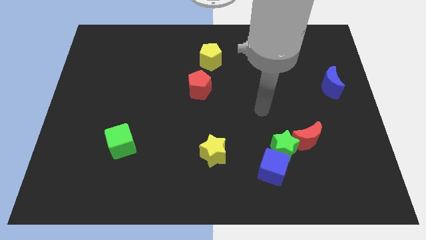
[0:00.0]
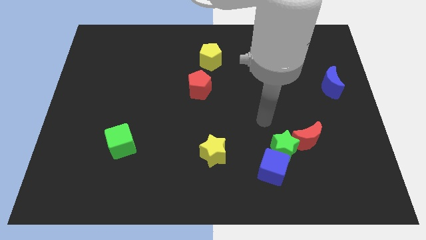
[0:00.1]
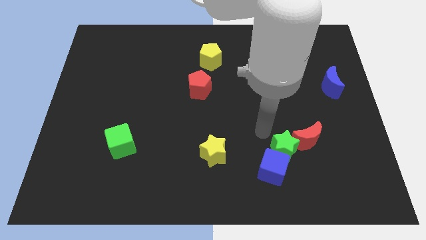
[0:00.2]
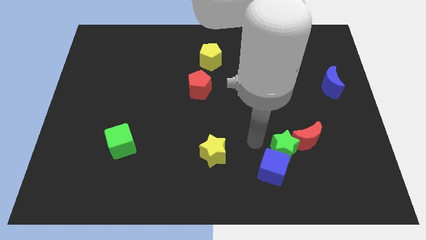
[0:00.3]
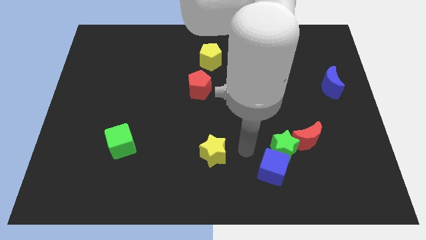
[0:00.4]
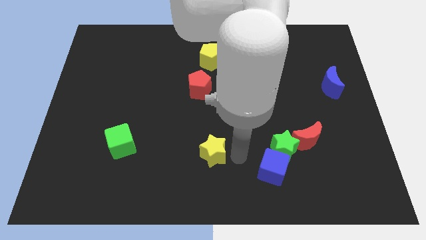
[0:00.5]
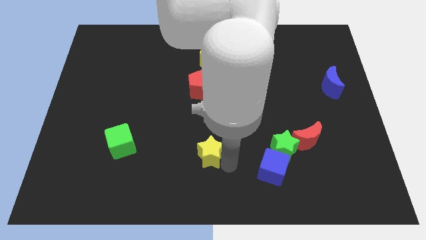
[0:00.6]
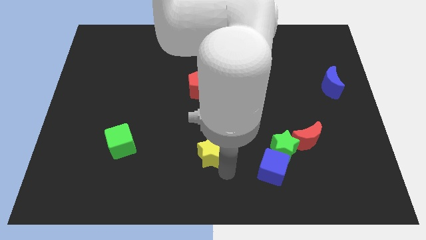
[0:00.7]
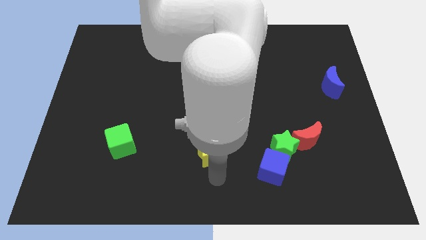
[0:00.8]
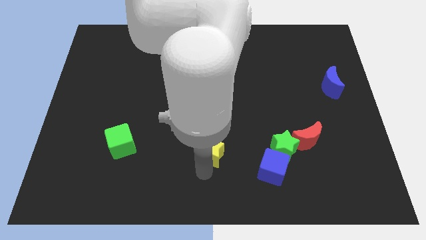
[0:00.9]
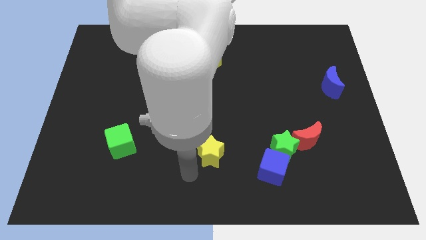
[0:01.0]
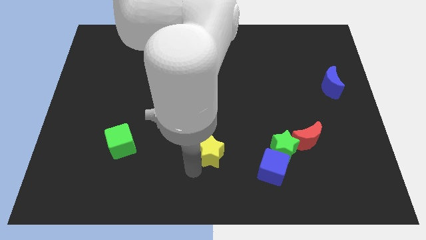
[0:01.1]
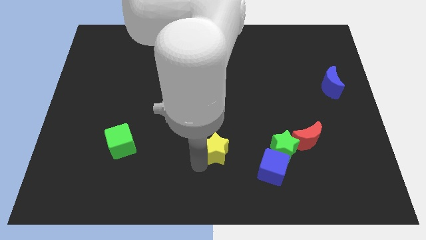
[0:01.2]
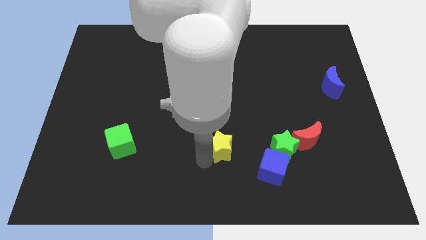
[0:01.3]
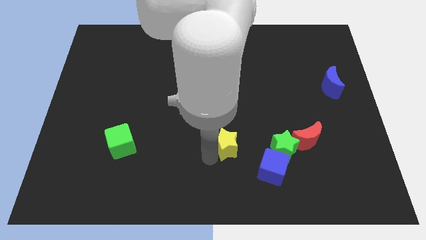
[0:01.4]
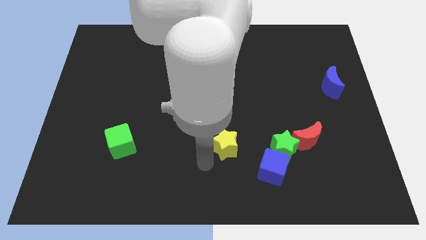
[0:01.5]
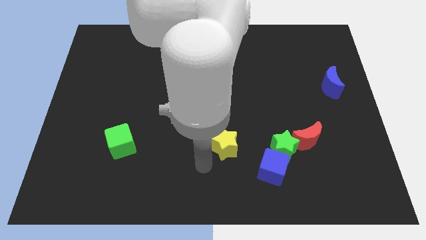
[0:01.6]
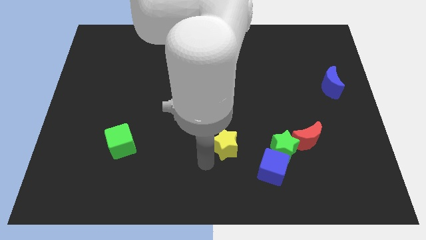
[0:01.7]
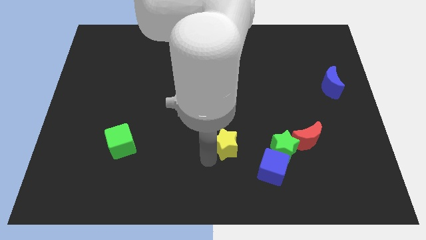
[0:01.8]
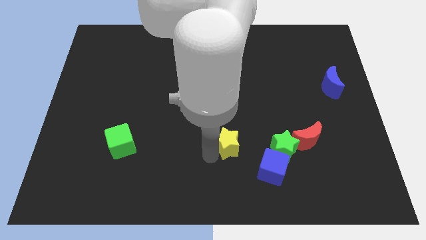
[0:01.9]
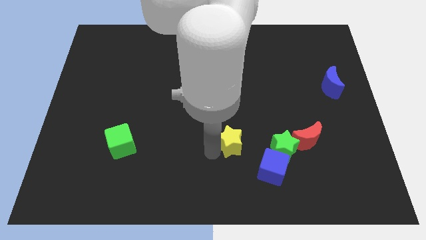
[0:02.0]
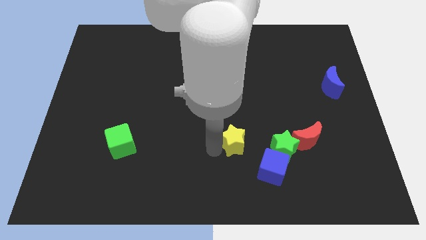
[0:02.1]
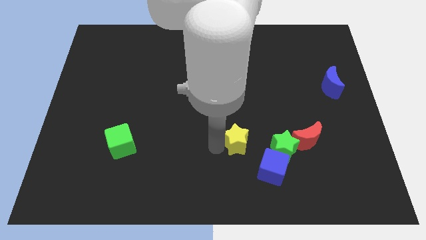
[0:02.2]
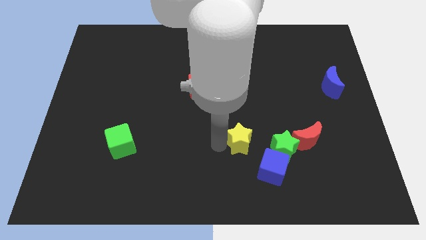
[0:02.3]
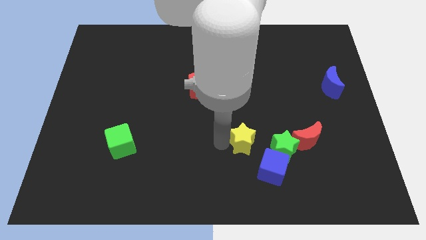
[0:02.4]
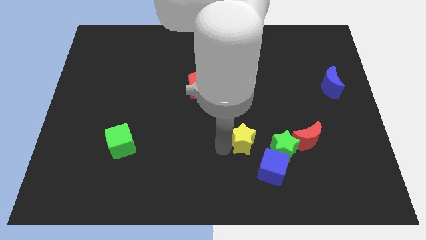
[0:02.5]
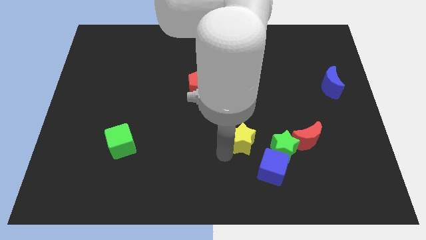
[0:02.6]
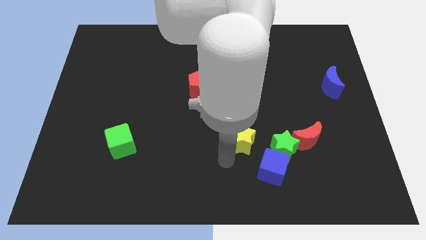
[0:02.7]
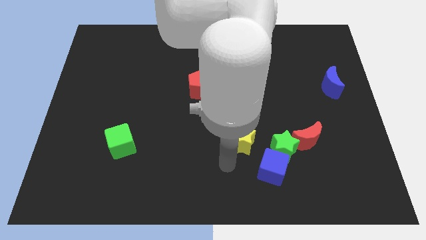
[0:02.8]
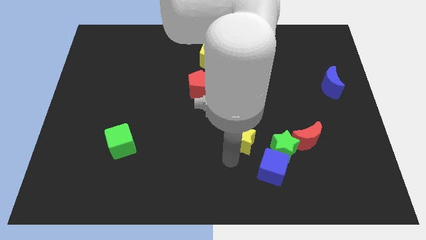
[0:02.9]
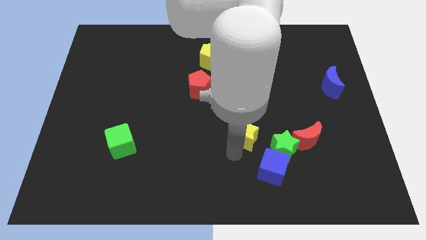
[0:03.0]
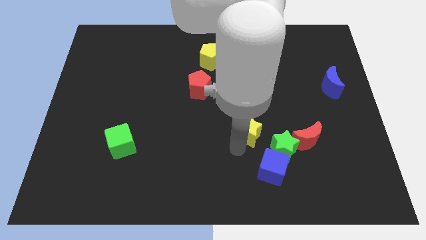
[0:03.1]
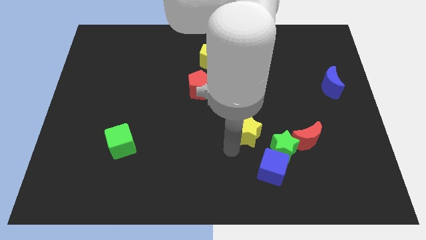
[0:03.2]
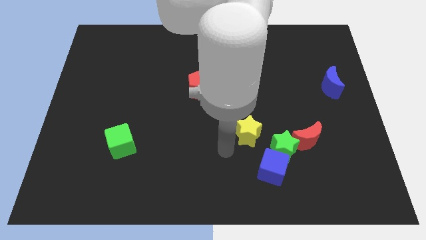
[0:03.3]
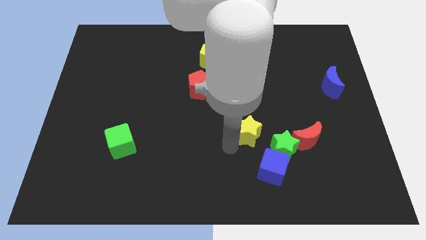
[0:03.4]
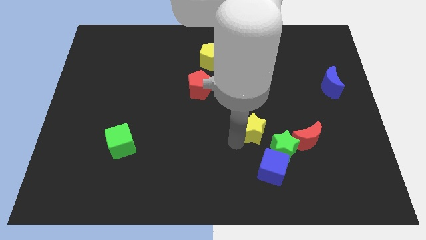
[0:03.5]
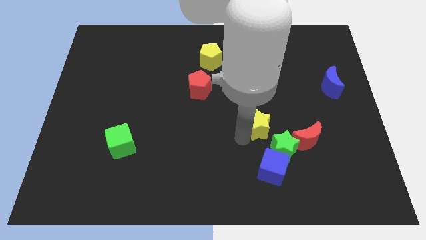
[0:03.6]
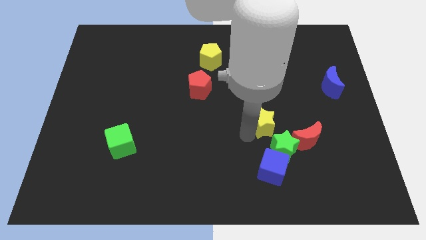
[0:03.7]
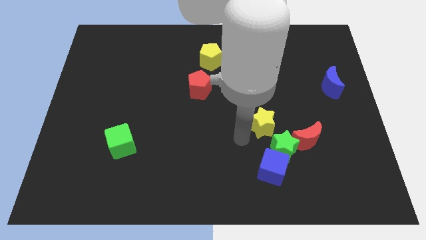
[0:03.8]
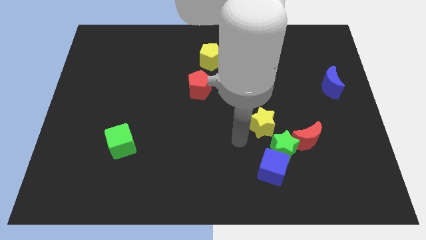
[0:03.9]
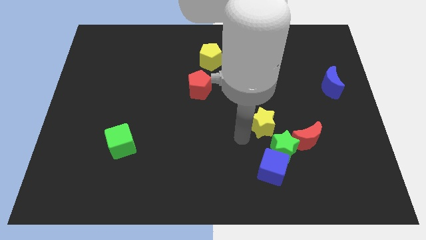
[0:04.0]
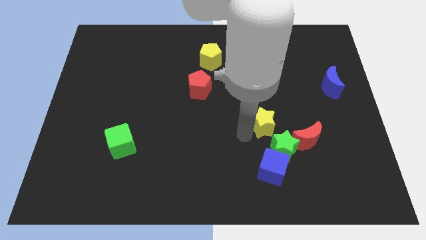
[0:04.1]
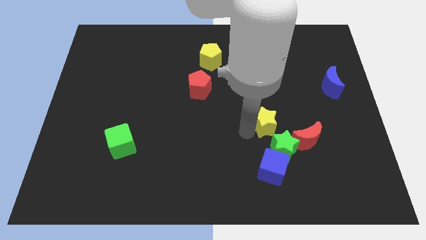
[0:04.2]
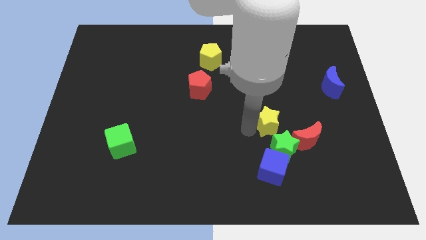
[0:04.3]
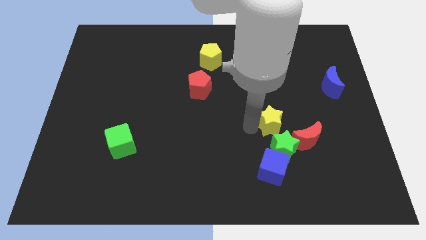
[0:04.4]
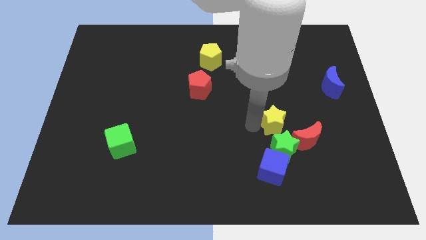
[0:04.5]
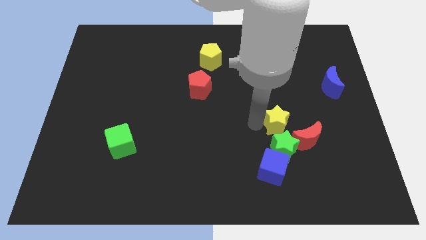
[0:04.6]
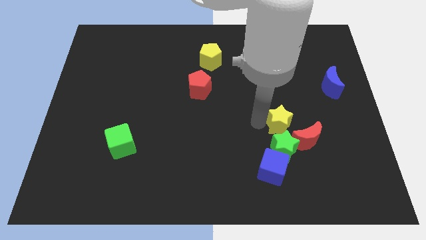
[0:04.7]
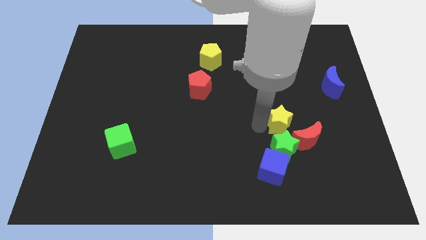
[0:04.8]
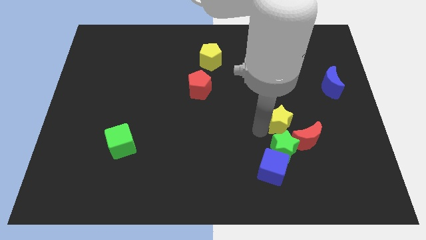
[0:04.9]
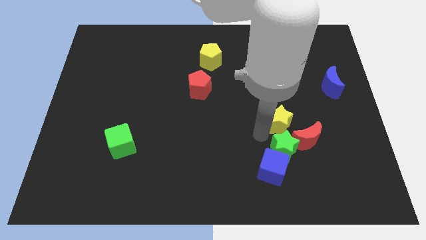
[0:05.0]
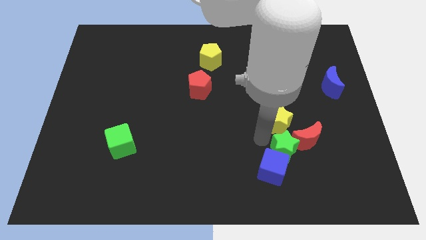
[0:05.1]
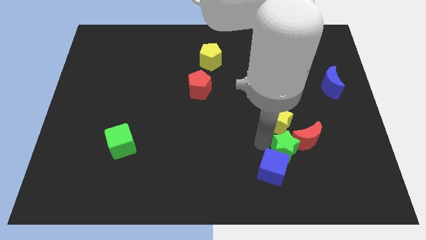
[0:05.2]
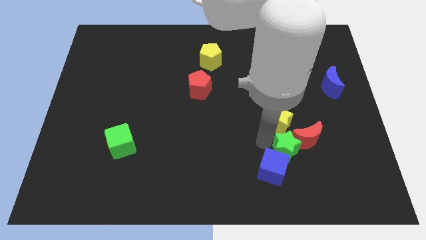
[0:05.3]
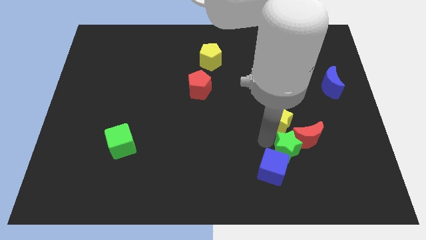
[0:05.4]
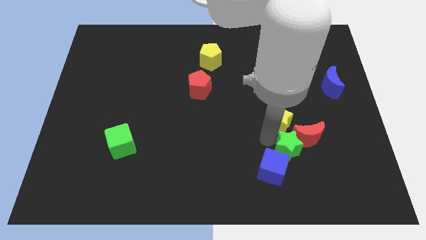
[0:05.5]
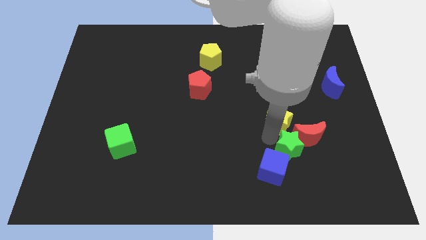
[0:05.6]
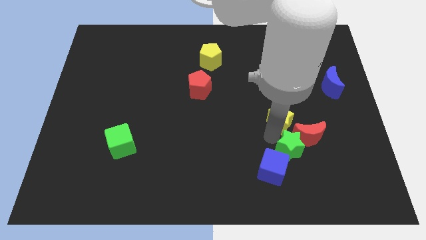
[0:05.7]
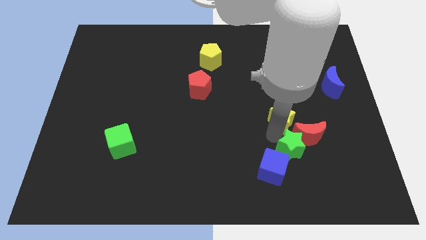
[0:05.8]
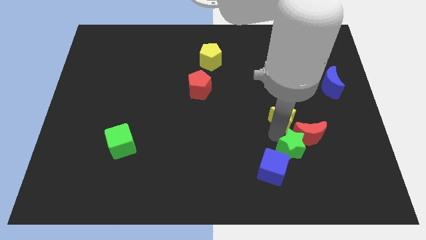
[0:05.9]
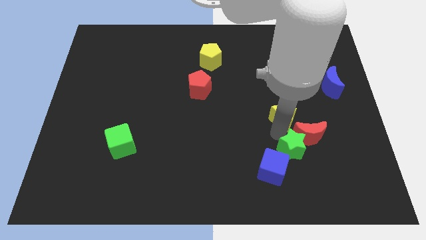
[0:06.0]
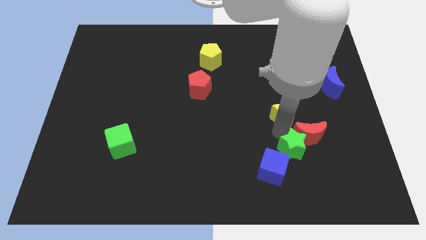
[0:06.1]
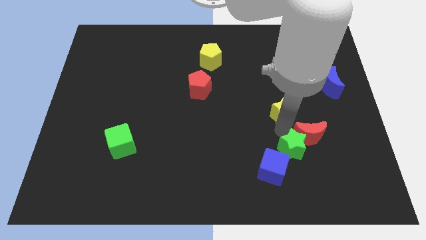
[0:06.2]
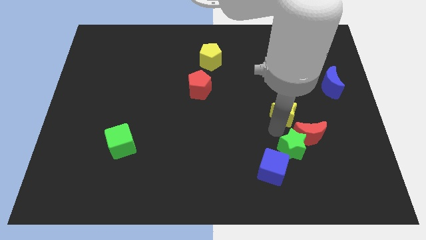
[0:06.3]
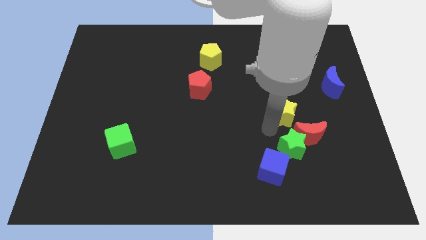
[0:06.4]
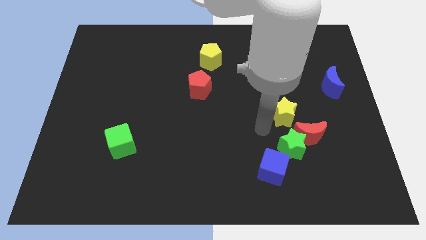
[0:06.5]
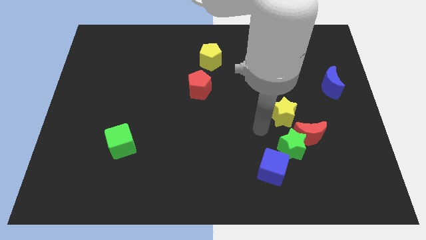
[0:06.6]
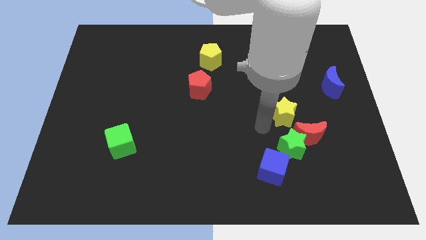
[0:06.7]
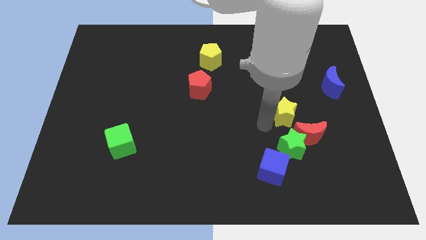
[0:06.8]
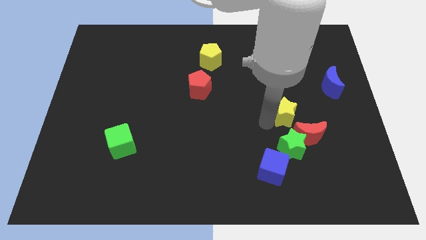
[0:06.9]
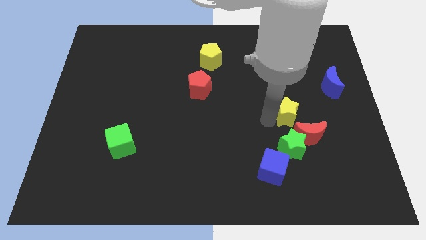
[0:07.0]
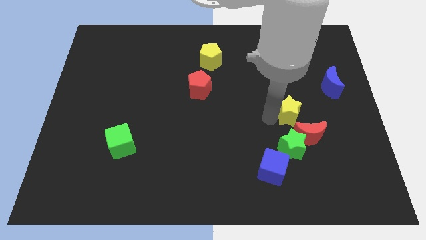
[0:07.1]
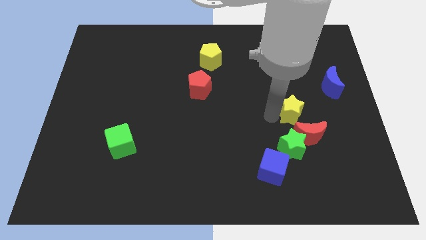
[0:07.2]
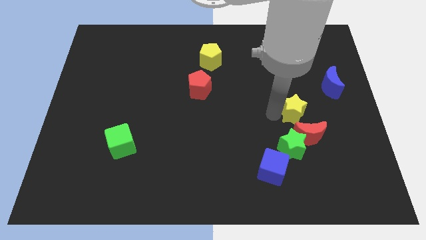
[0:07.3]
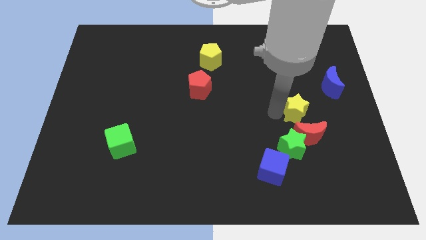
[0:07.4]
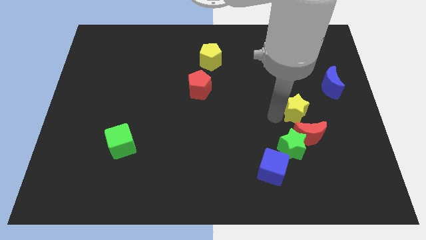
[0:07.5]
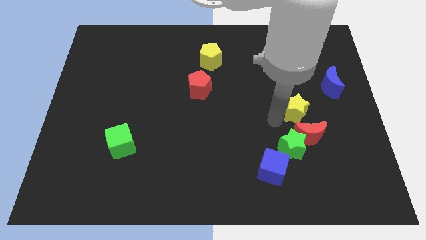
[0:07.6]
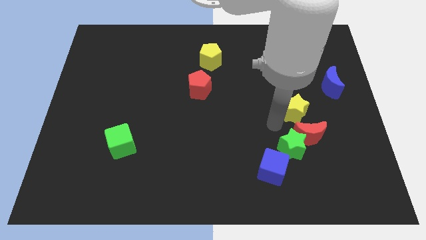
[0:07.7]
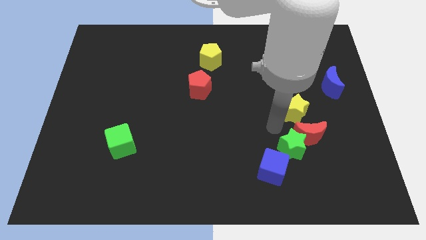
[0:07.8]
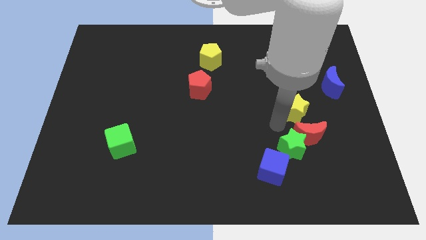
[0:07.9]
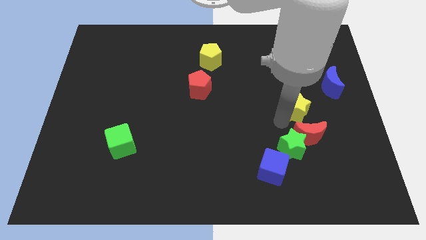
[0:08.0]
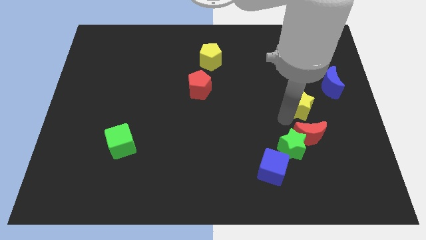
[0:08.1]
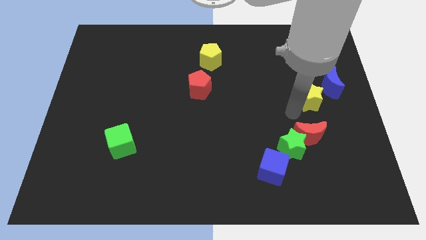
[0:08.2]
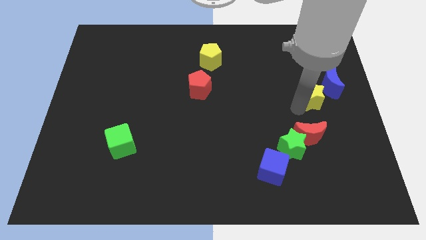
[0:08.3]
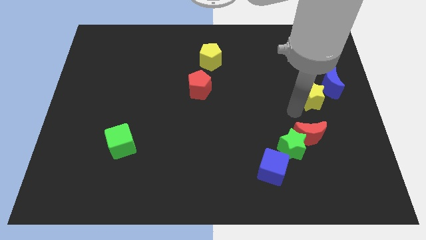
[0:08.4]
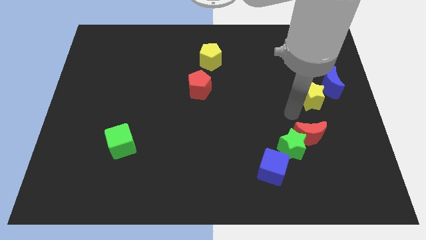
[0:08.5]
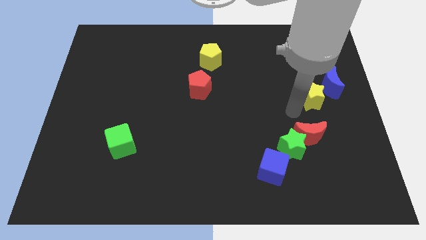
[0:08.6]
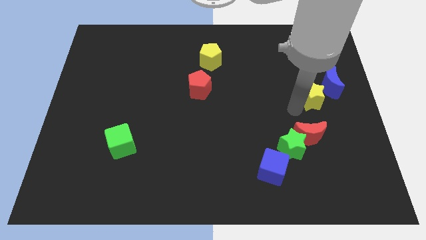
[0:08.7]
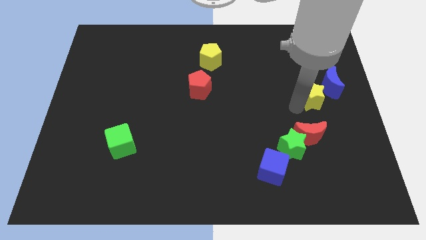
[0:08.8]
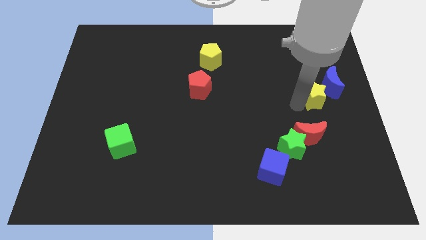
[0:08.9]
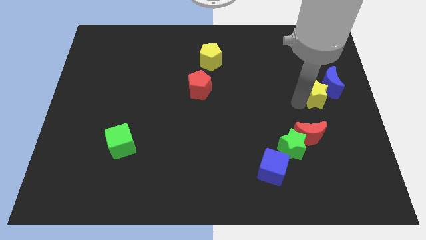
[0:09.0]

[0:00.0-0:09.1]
move the yellow star close to the blue moon
